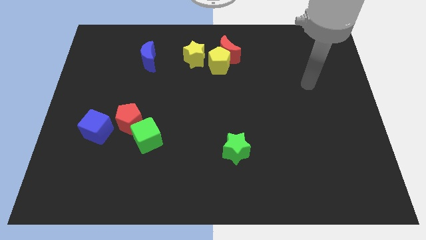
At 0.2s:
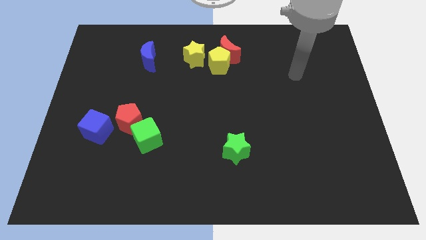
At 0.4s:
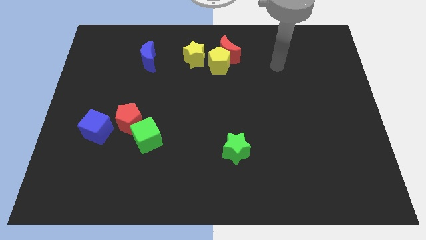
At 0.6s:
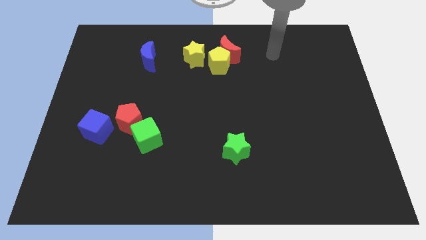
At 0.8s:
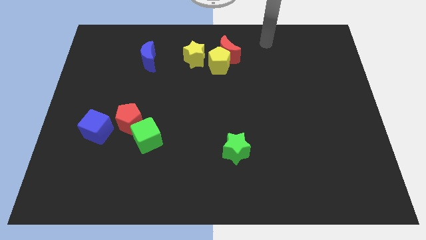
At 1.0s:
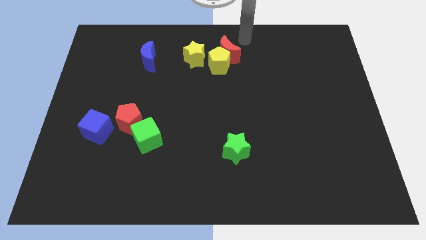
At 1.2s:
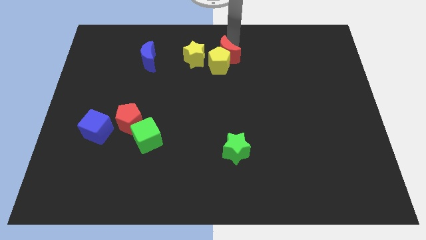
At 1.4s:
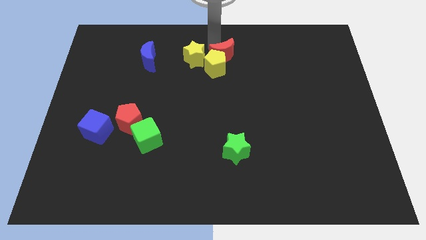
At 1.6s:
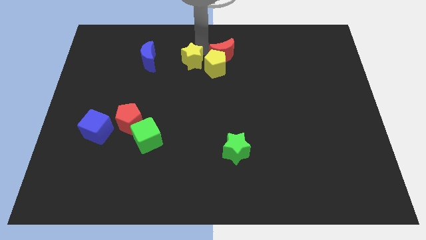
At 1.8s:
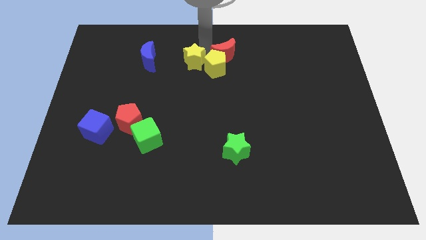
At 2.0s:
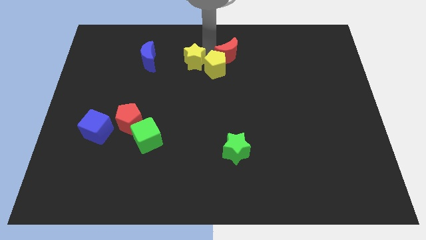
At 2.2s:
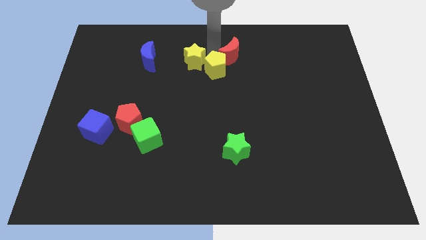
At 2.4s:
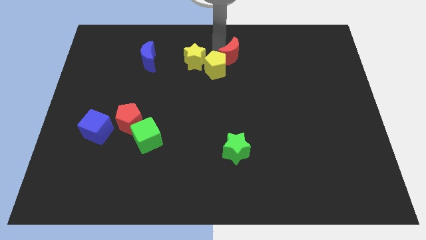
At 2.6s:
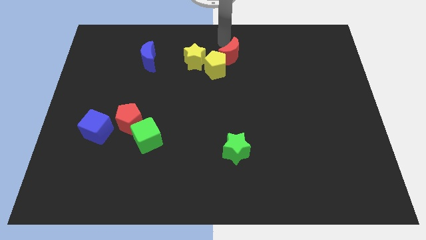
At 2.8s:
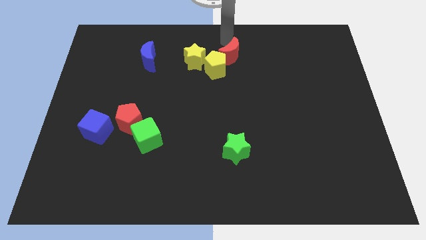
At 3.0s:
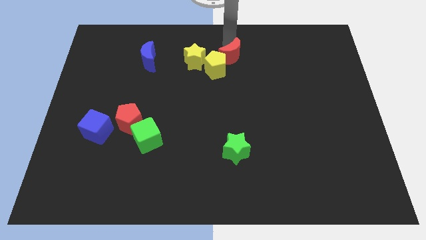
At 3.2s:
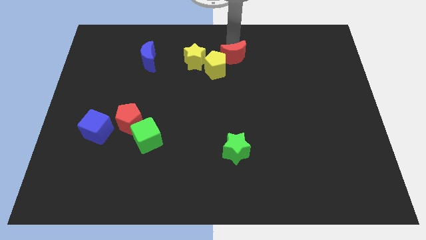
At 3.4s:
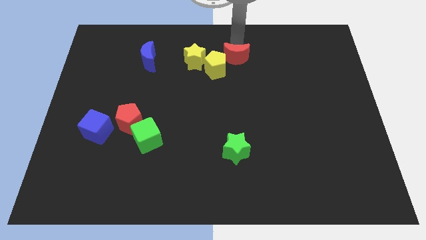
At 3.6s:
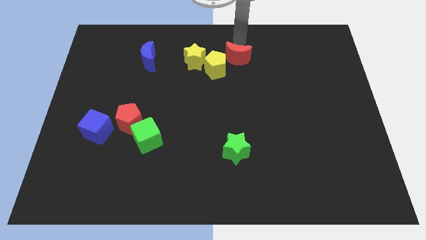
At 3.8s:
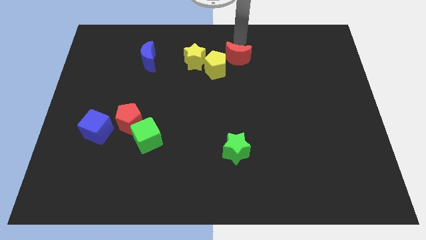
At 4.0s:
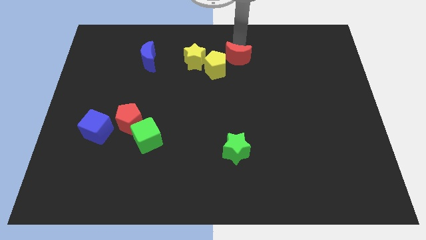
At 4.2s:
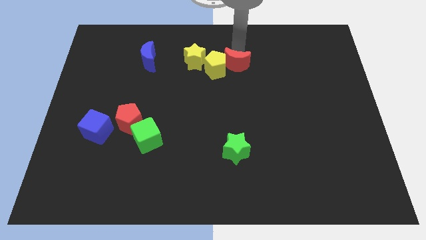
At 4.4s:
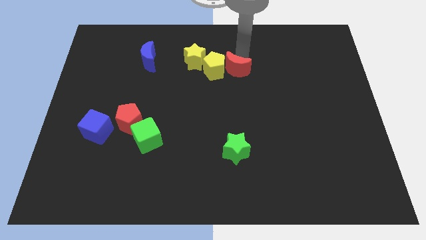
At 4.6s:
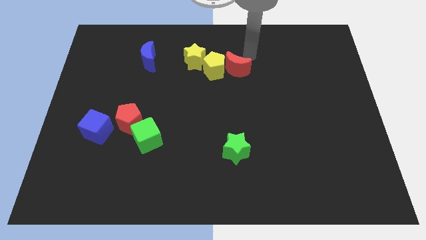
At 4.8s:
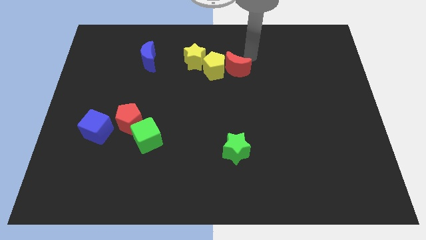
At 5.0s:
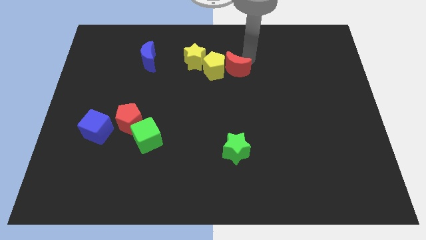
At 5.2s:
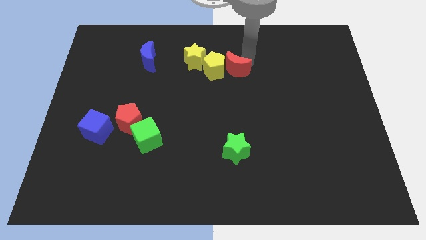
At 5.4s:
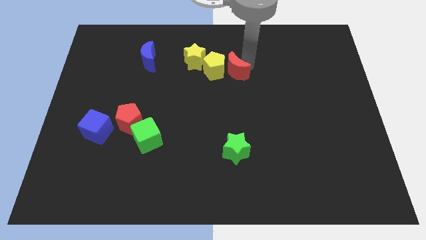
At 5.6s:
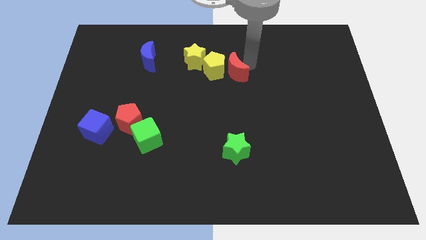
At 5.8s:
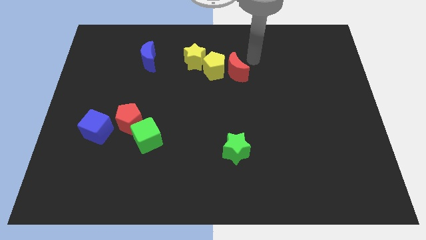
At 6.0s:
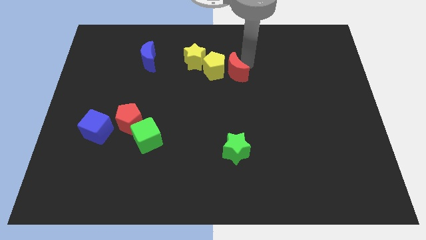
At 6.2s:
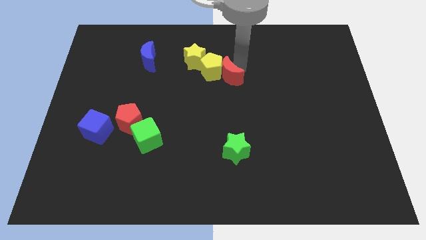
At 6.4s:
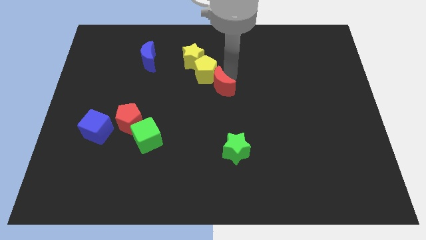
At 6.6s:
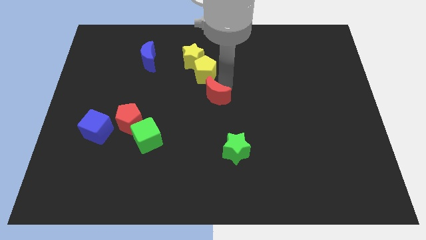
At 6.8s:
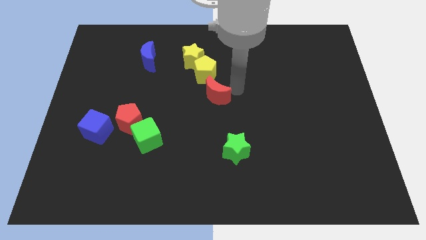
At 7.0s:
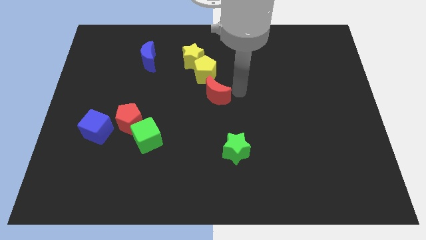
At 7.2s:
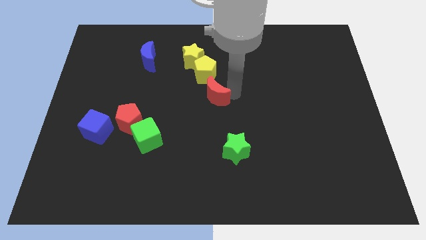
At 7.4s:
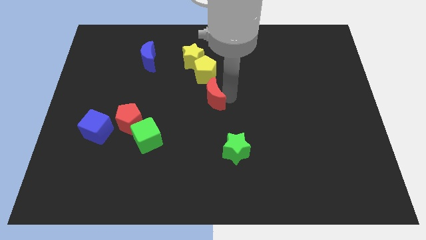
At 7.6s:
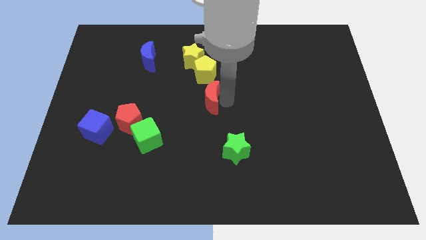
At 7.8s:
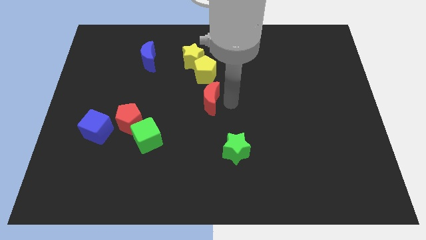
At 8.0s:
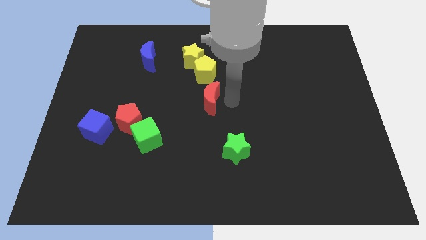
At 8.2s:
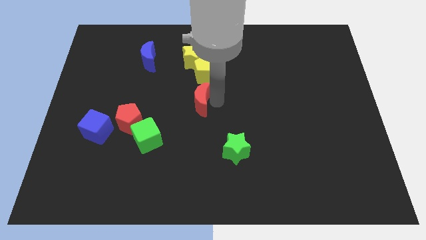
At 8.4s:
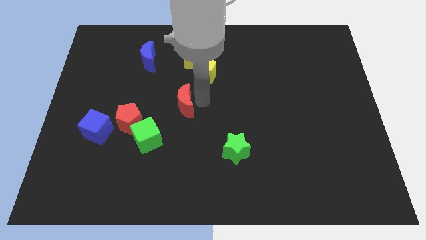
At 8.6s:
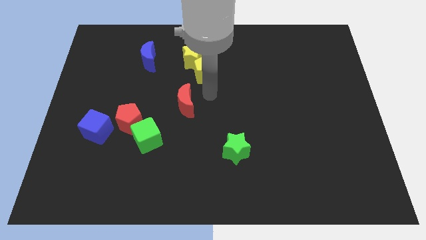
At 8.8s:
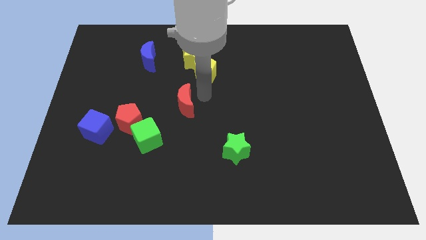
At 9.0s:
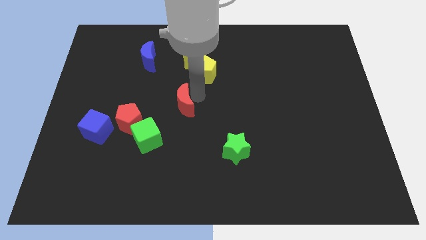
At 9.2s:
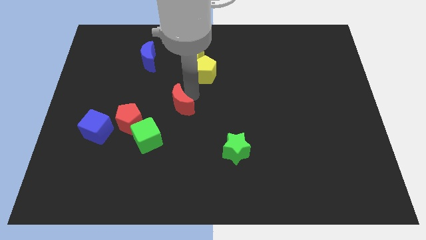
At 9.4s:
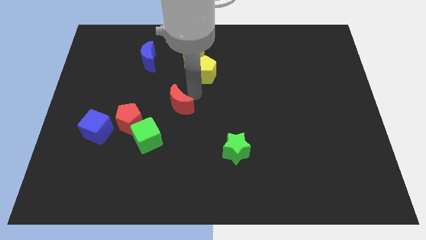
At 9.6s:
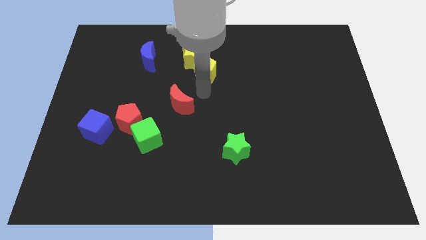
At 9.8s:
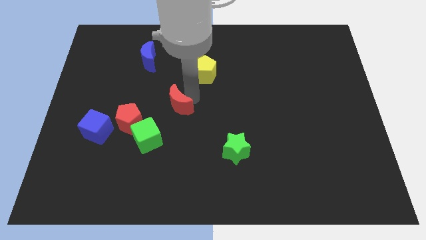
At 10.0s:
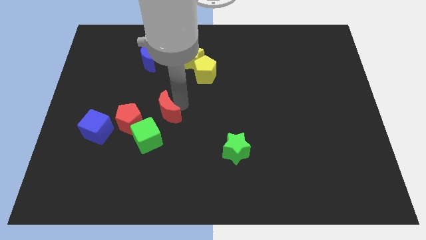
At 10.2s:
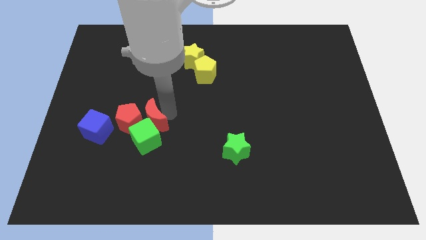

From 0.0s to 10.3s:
slide the red moon next to the red pentagon

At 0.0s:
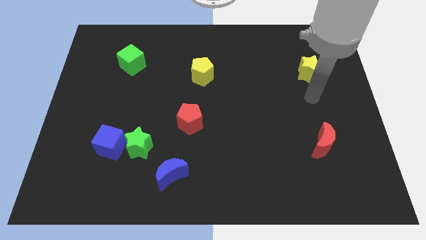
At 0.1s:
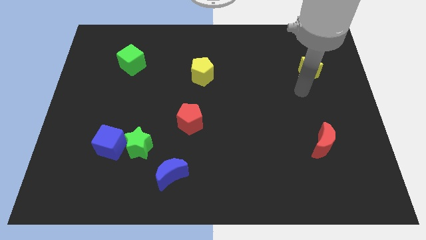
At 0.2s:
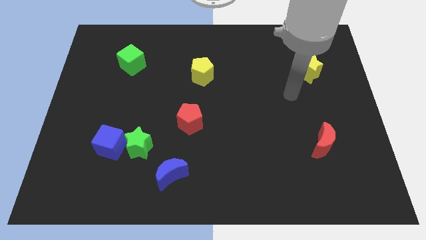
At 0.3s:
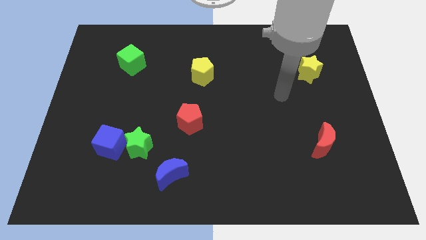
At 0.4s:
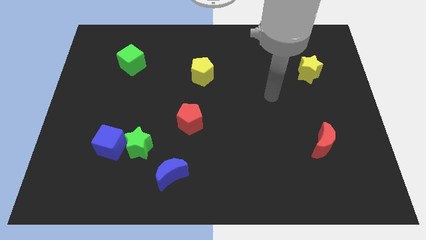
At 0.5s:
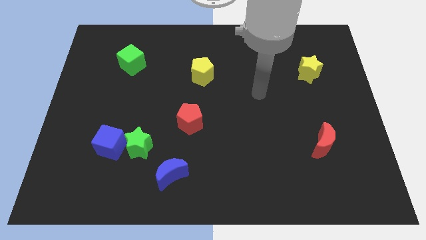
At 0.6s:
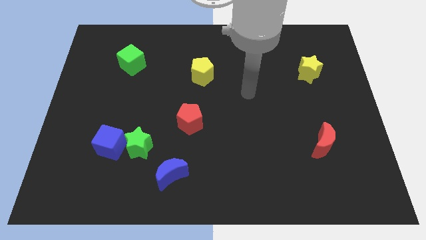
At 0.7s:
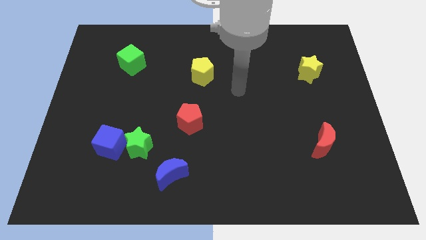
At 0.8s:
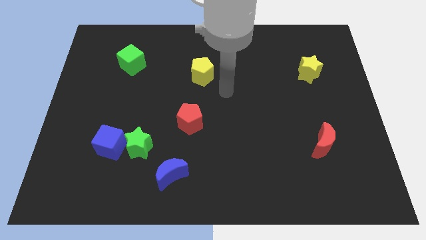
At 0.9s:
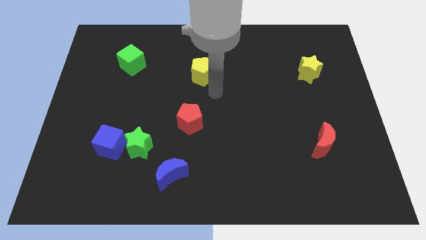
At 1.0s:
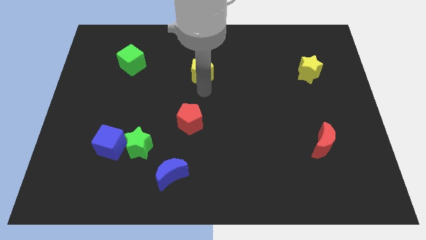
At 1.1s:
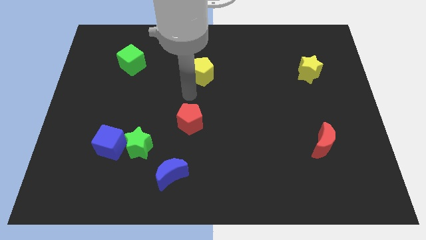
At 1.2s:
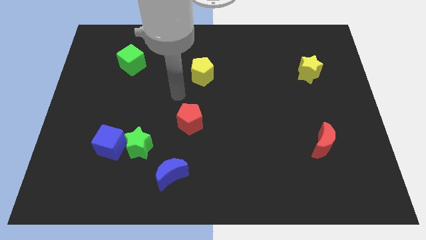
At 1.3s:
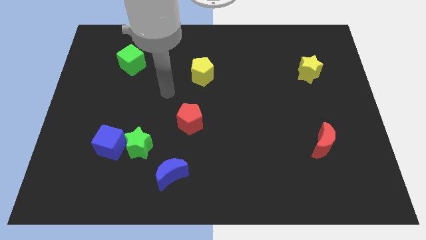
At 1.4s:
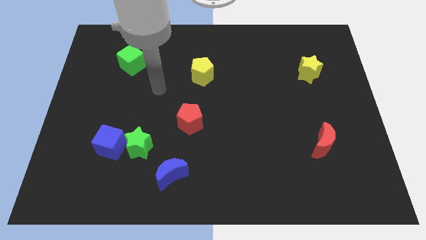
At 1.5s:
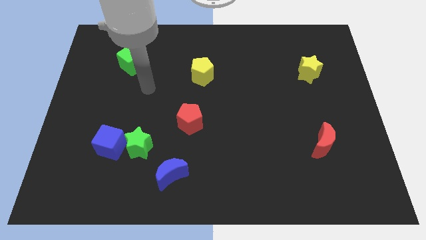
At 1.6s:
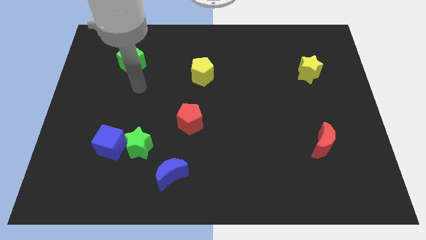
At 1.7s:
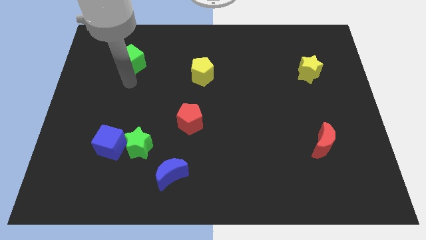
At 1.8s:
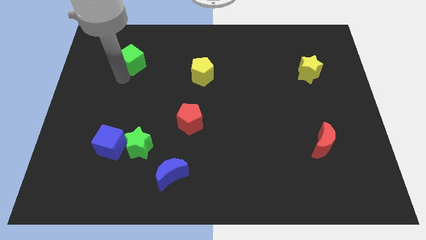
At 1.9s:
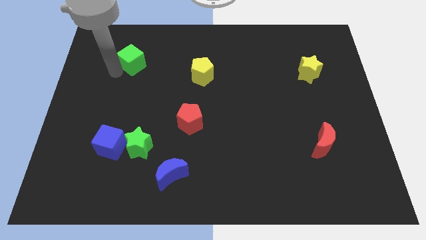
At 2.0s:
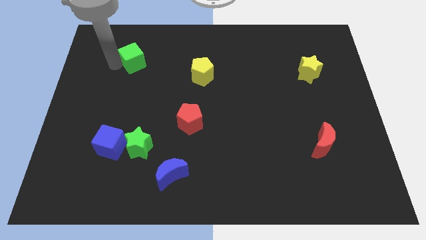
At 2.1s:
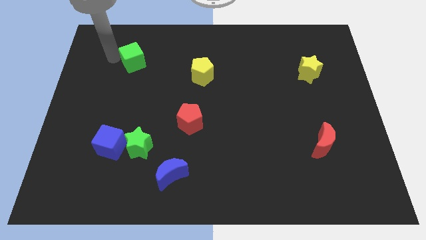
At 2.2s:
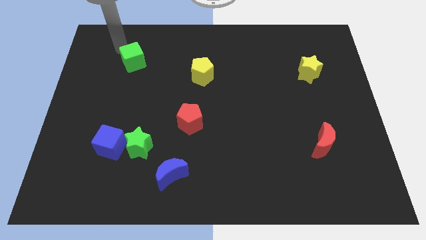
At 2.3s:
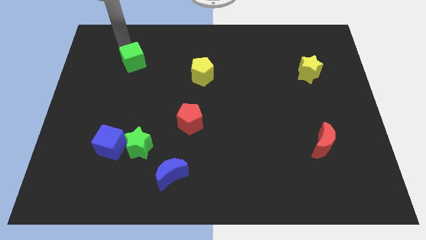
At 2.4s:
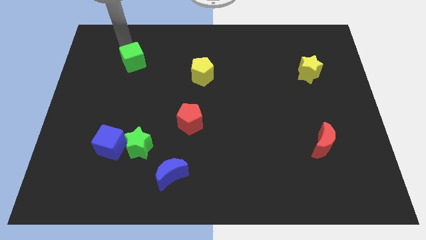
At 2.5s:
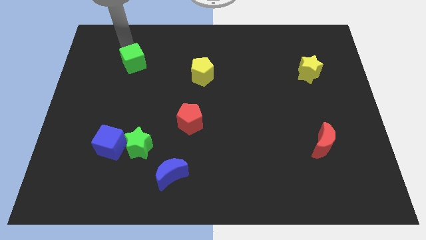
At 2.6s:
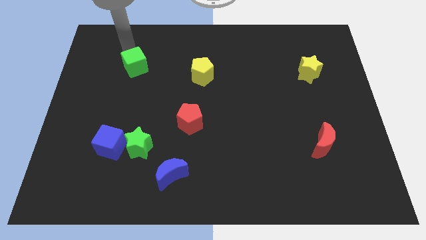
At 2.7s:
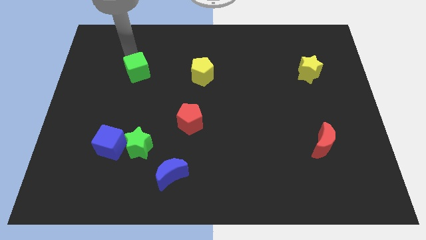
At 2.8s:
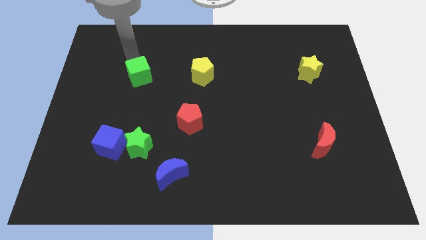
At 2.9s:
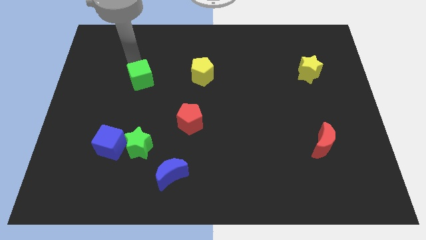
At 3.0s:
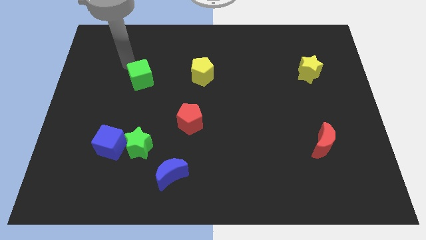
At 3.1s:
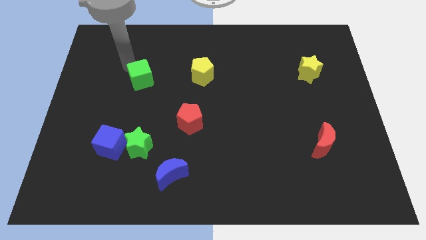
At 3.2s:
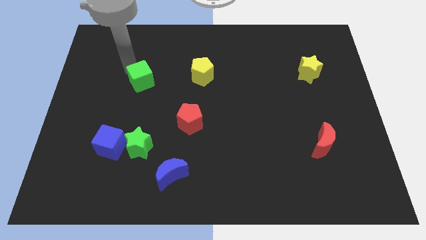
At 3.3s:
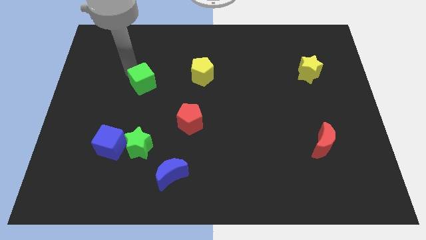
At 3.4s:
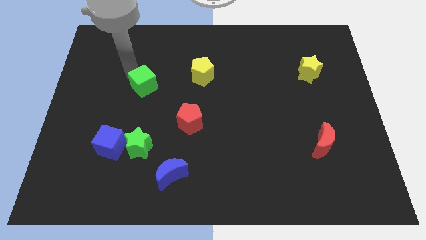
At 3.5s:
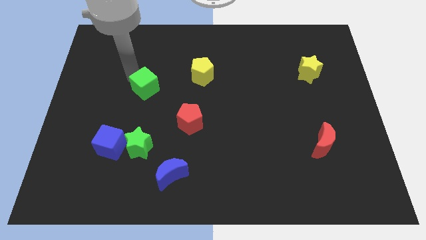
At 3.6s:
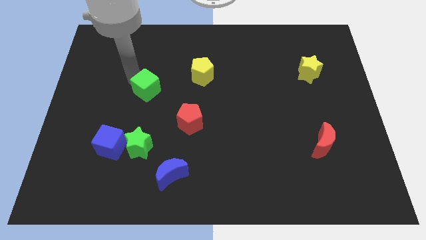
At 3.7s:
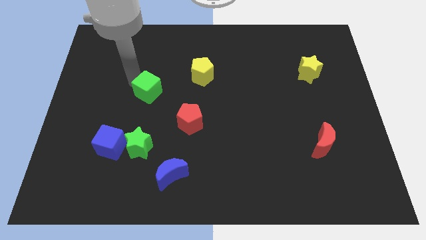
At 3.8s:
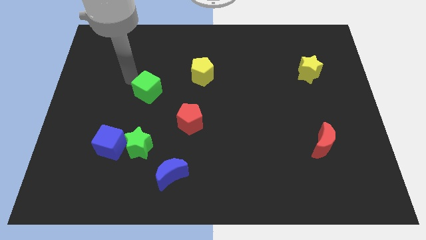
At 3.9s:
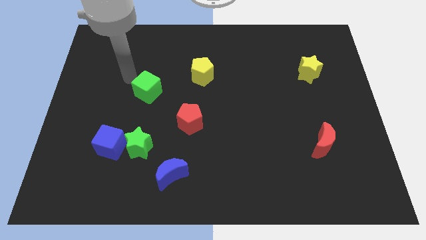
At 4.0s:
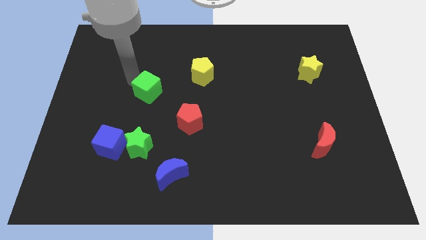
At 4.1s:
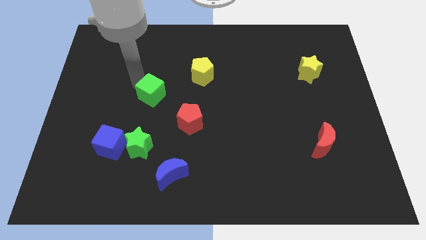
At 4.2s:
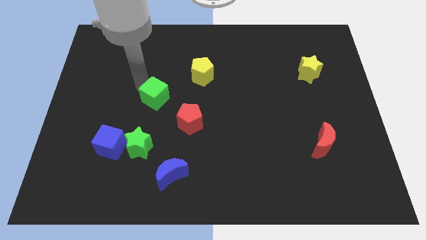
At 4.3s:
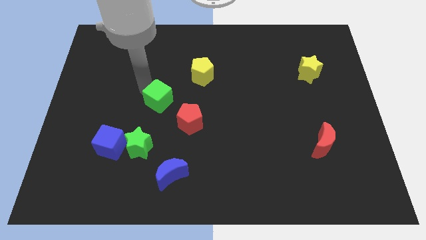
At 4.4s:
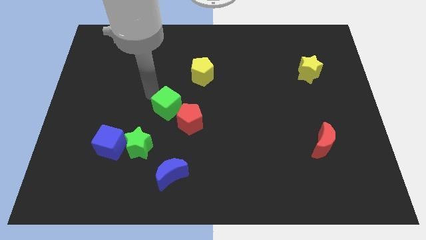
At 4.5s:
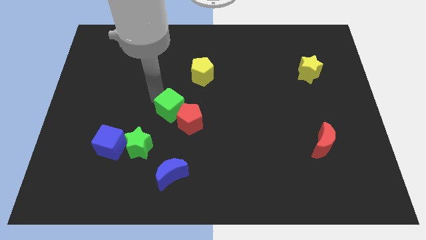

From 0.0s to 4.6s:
put the green cube close to the red pentagon
